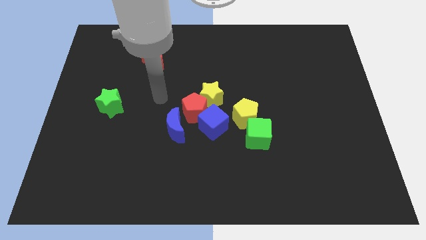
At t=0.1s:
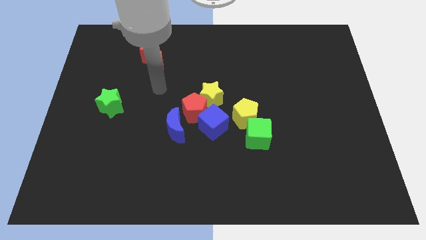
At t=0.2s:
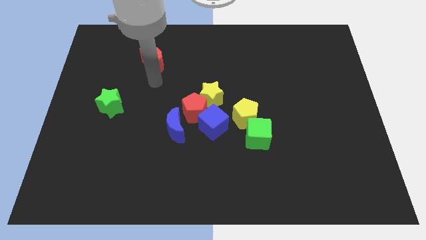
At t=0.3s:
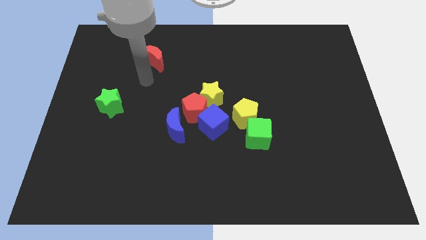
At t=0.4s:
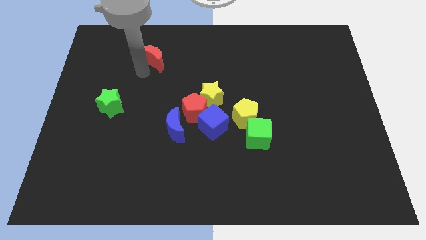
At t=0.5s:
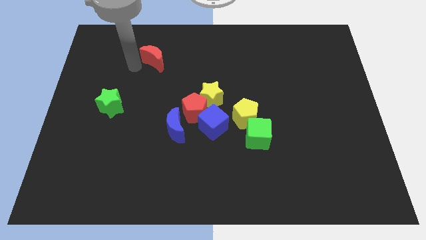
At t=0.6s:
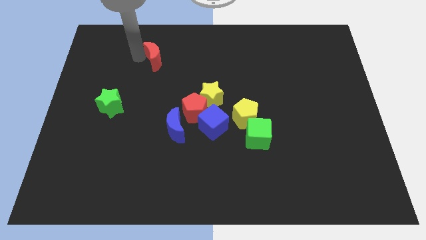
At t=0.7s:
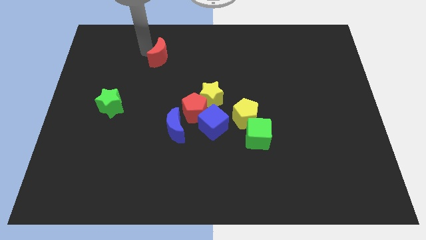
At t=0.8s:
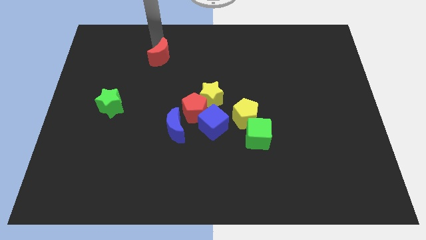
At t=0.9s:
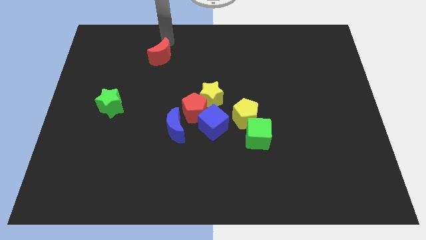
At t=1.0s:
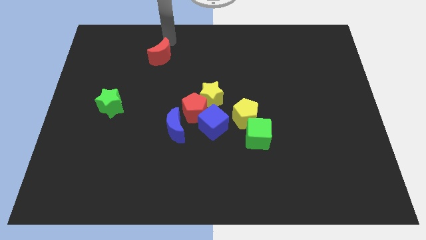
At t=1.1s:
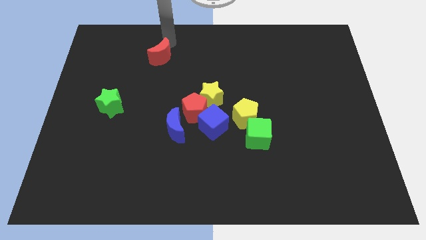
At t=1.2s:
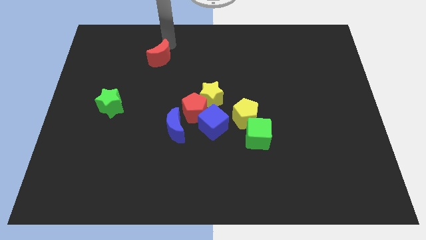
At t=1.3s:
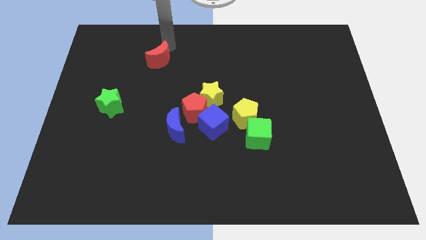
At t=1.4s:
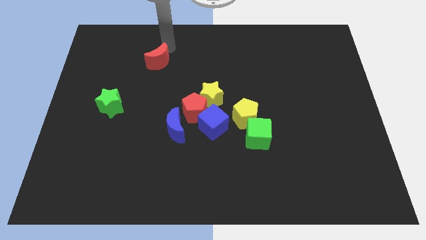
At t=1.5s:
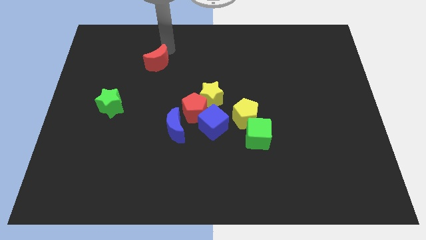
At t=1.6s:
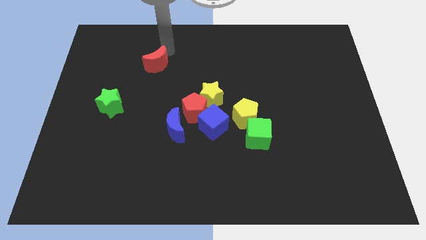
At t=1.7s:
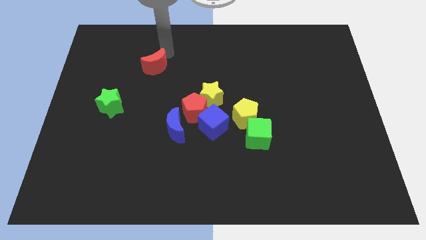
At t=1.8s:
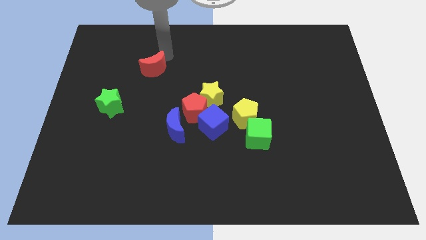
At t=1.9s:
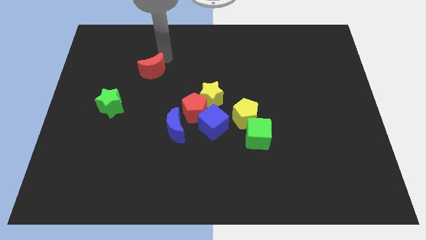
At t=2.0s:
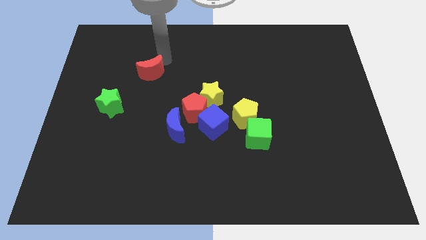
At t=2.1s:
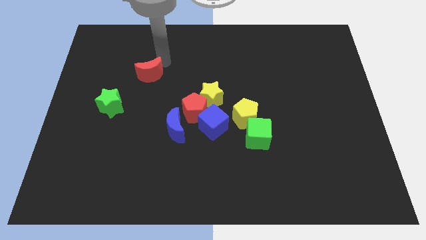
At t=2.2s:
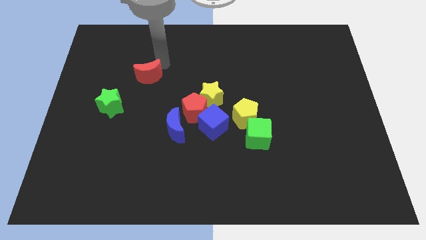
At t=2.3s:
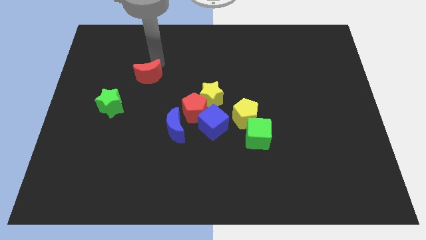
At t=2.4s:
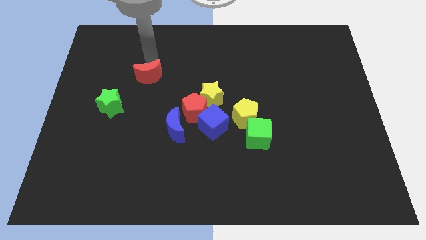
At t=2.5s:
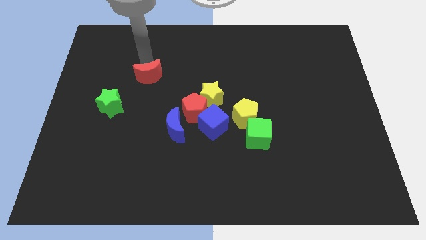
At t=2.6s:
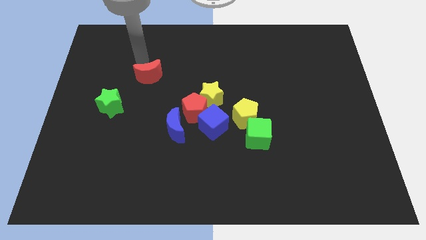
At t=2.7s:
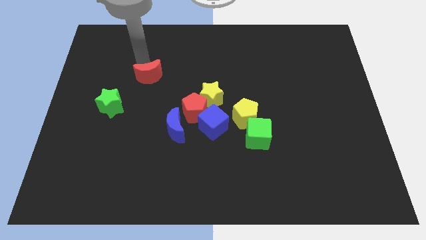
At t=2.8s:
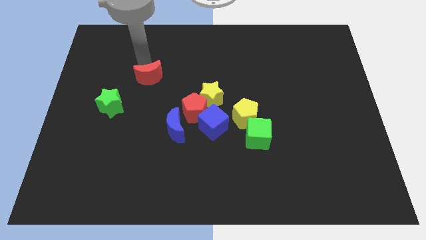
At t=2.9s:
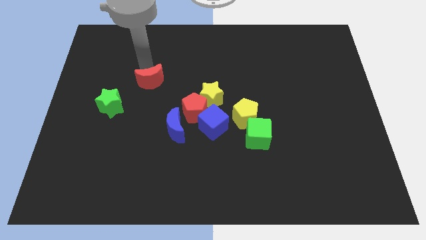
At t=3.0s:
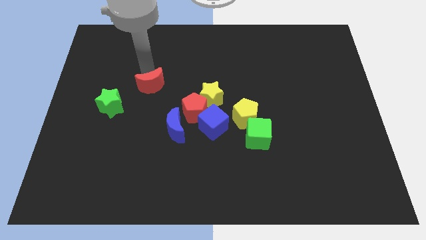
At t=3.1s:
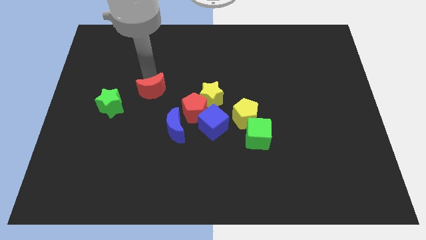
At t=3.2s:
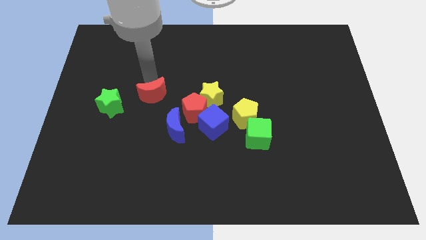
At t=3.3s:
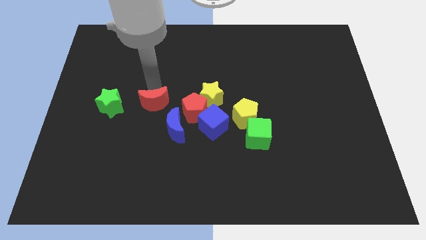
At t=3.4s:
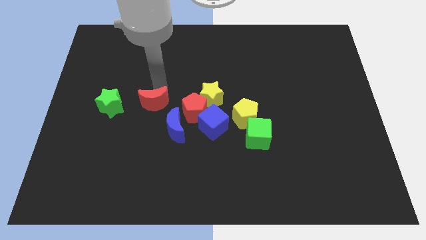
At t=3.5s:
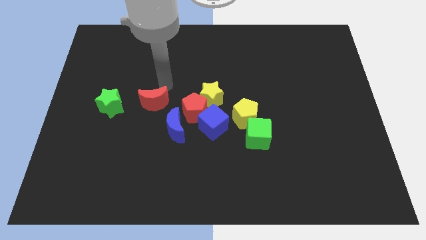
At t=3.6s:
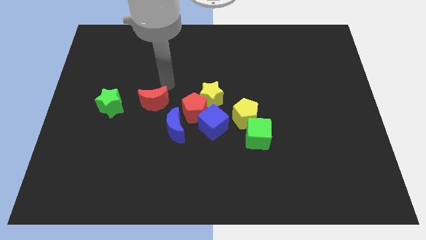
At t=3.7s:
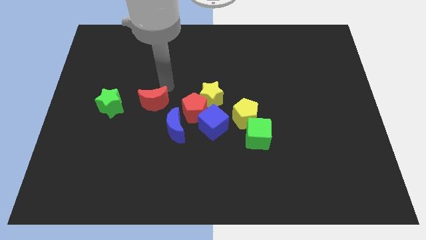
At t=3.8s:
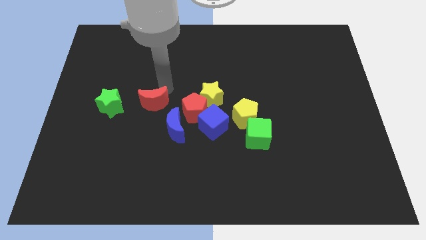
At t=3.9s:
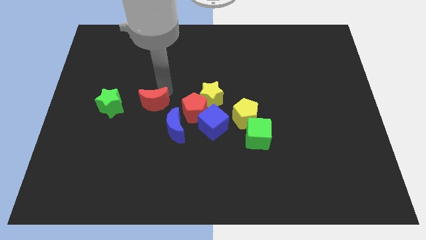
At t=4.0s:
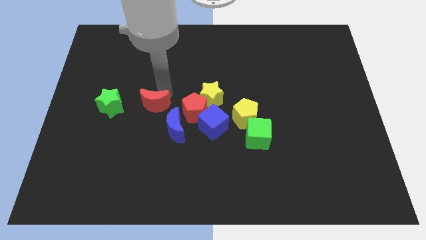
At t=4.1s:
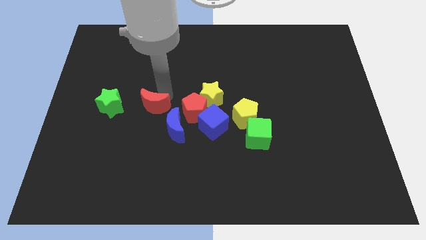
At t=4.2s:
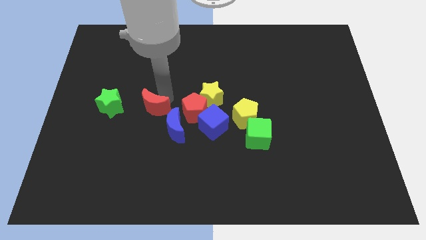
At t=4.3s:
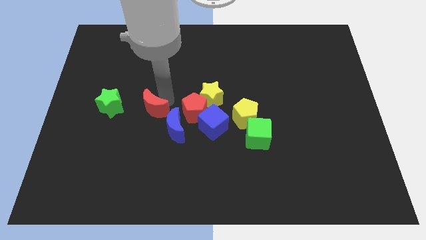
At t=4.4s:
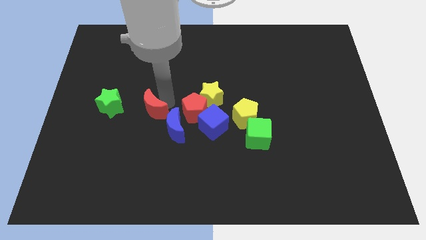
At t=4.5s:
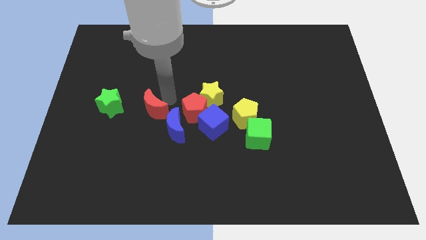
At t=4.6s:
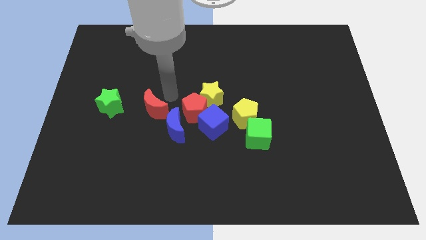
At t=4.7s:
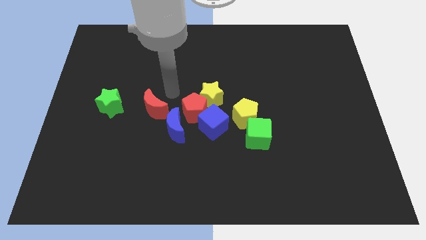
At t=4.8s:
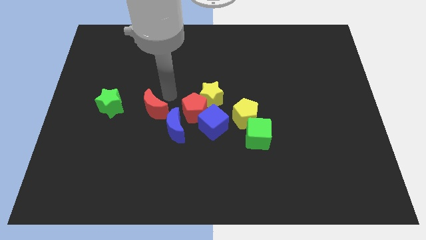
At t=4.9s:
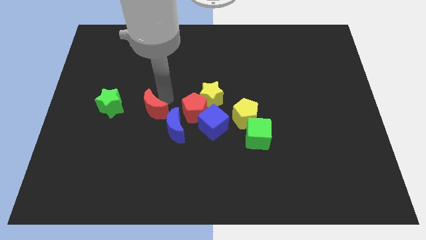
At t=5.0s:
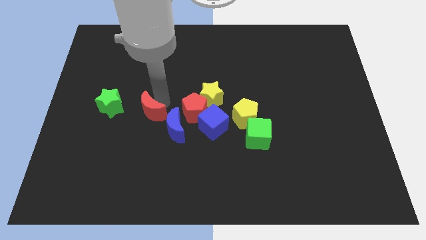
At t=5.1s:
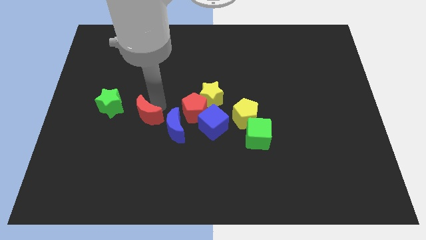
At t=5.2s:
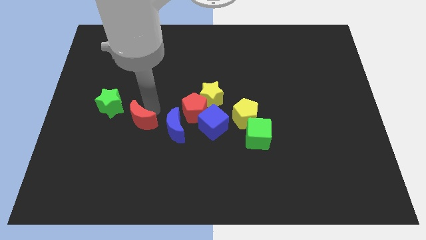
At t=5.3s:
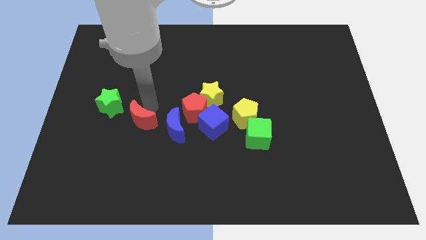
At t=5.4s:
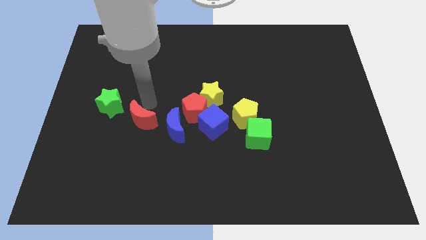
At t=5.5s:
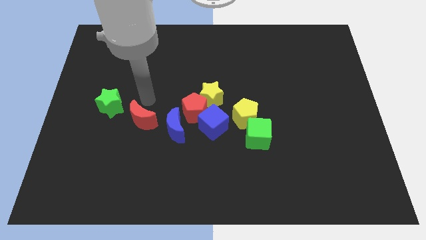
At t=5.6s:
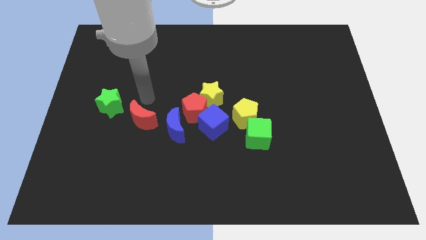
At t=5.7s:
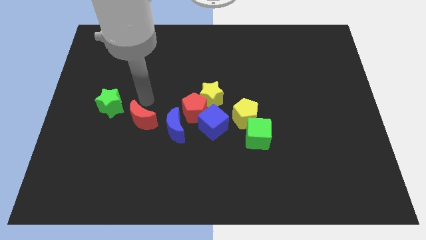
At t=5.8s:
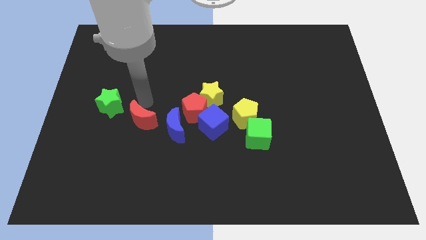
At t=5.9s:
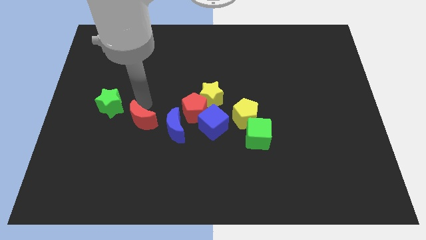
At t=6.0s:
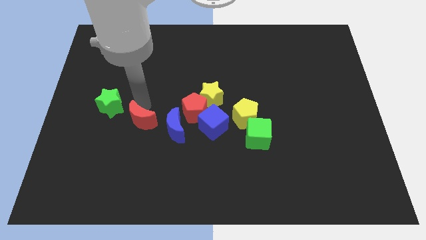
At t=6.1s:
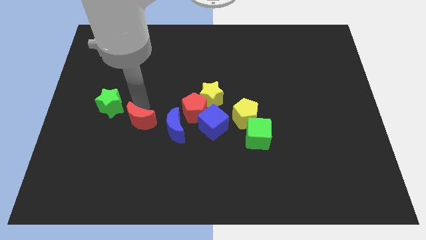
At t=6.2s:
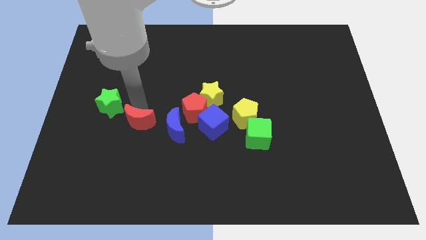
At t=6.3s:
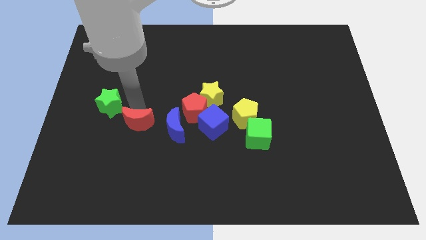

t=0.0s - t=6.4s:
slide the red moon downwards

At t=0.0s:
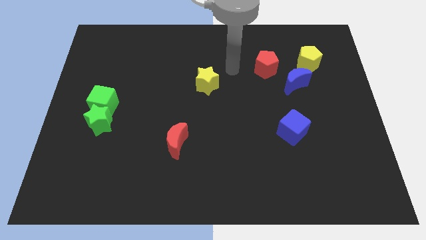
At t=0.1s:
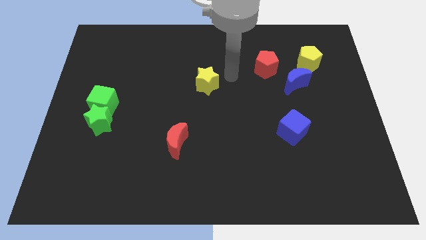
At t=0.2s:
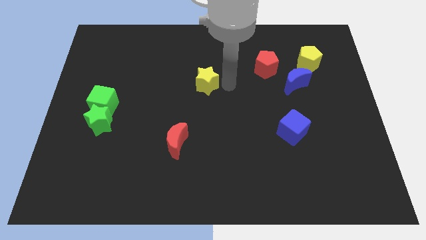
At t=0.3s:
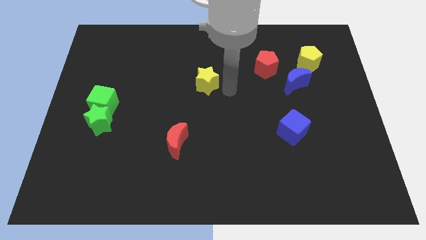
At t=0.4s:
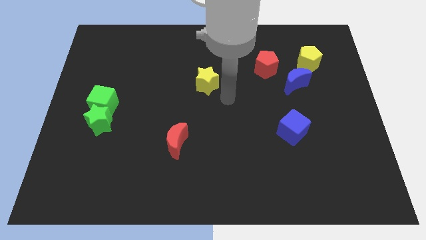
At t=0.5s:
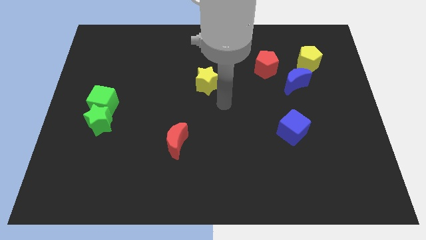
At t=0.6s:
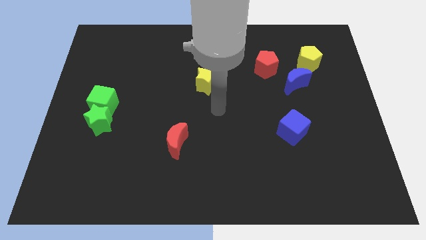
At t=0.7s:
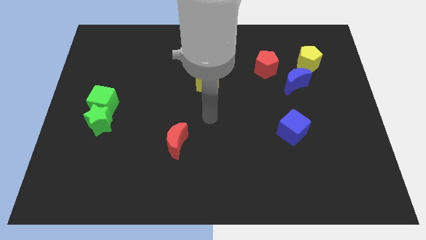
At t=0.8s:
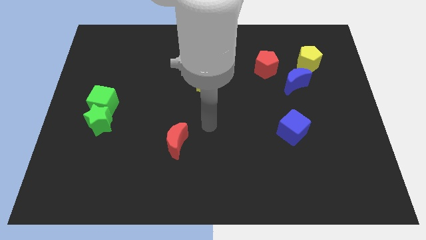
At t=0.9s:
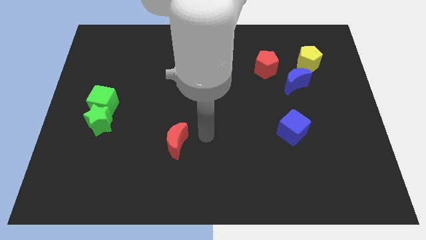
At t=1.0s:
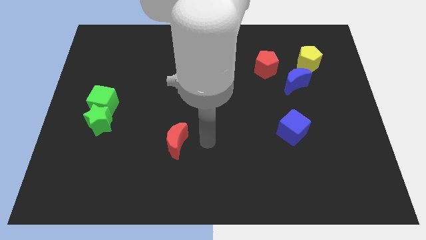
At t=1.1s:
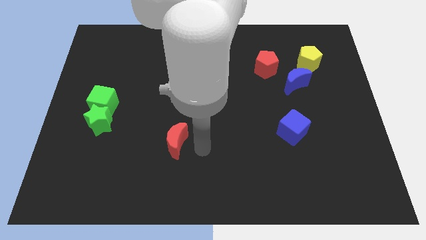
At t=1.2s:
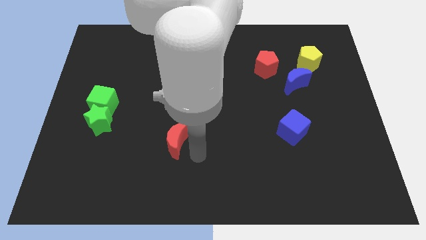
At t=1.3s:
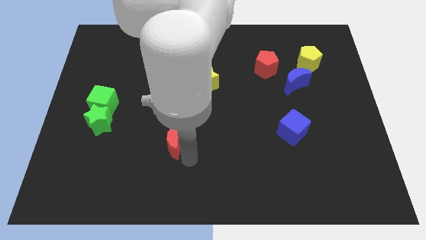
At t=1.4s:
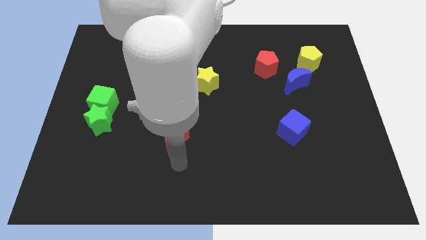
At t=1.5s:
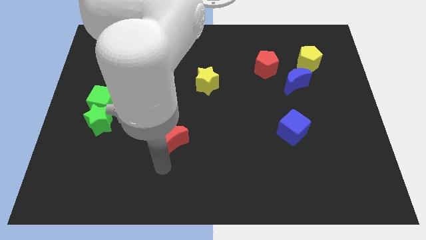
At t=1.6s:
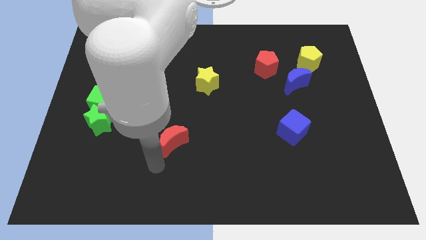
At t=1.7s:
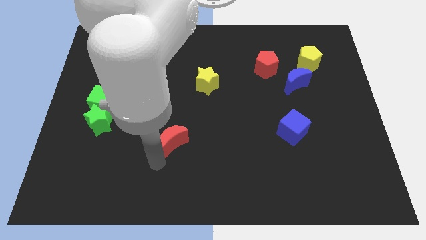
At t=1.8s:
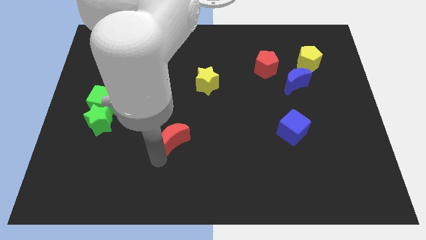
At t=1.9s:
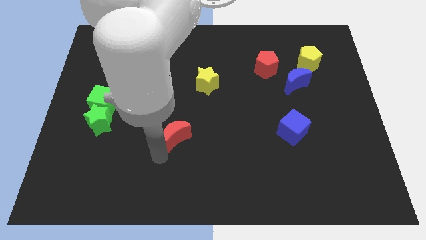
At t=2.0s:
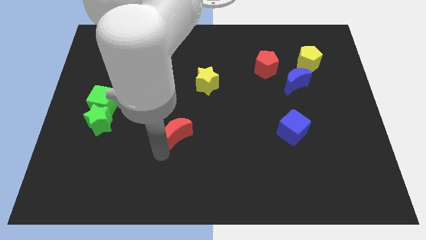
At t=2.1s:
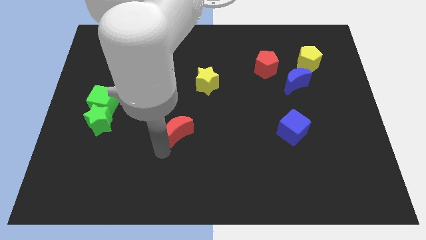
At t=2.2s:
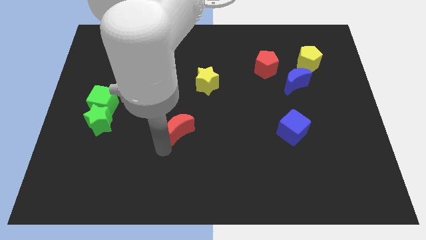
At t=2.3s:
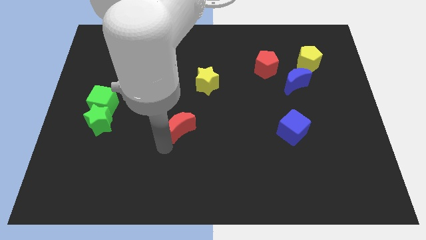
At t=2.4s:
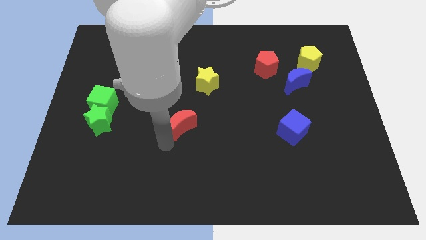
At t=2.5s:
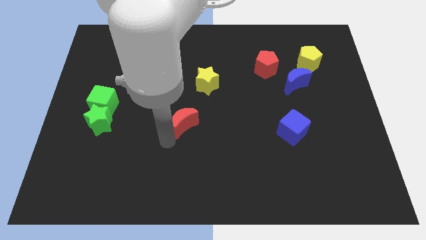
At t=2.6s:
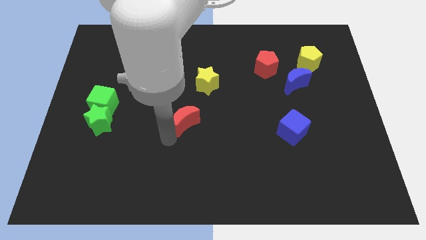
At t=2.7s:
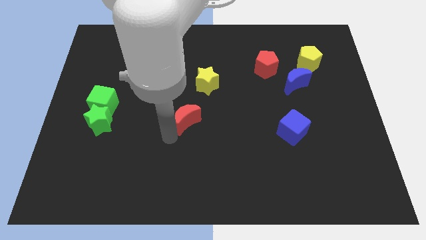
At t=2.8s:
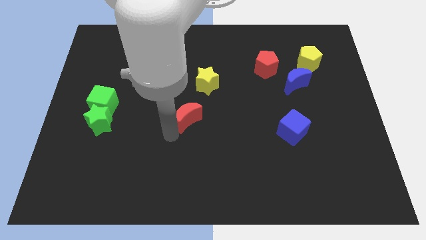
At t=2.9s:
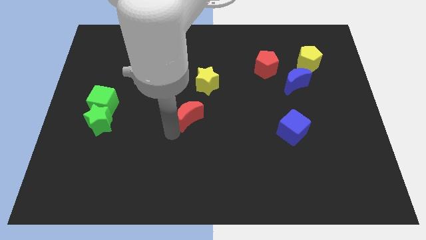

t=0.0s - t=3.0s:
slightly move the red moon up
